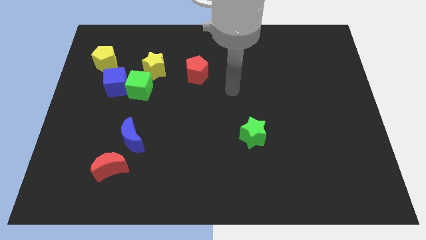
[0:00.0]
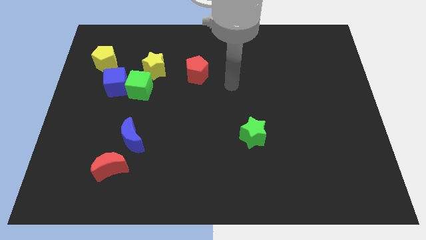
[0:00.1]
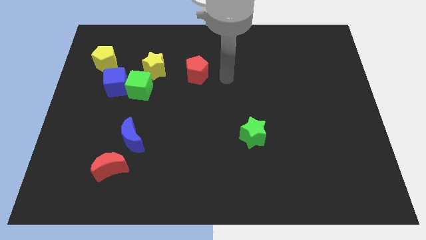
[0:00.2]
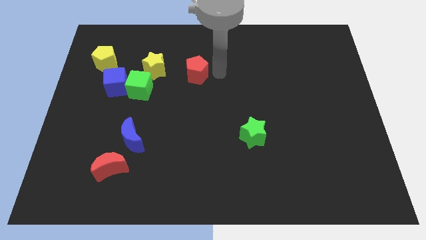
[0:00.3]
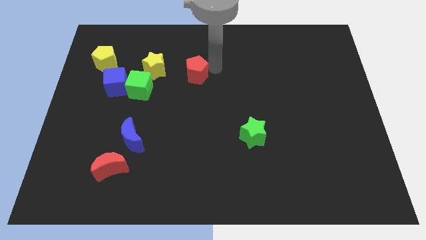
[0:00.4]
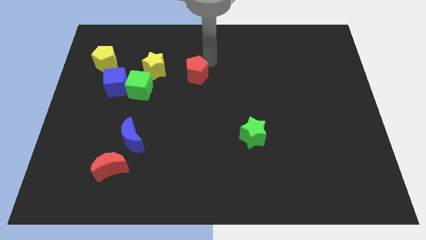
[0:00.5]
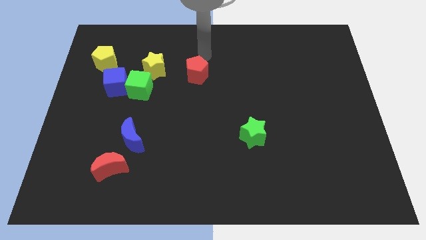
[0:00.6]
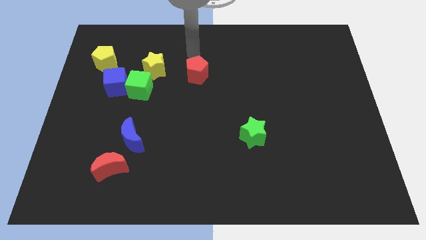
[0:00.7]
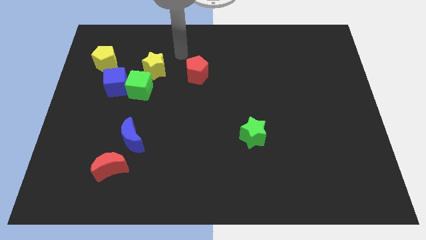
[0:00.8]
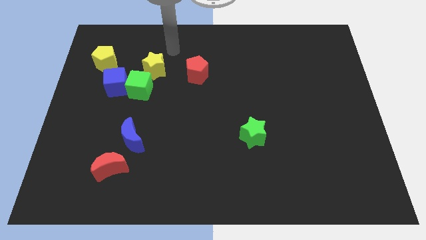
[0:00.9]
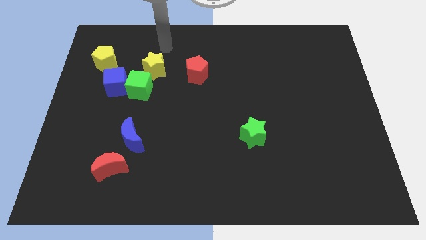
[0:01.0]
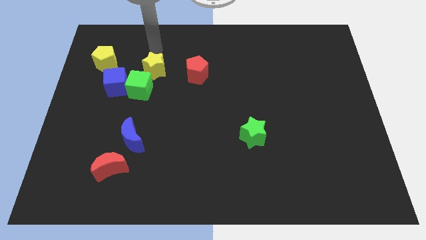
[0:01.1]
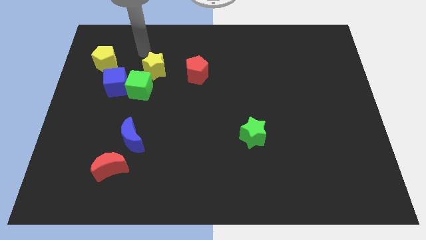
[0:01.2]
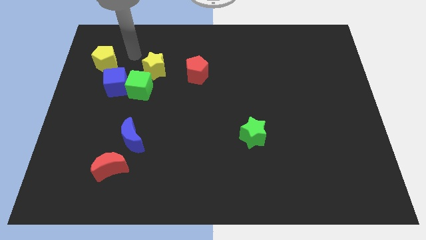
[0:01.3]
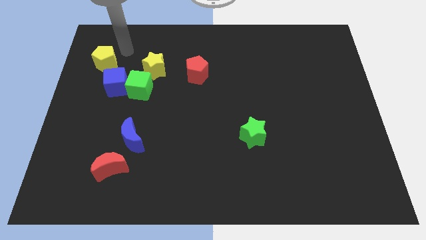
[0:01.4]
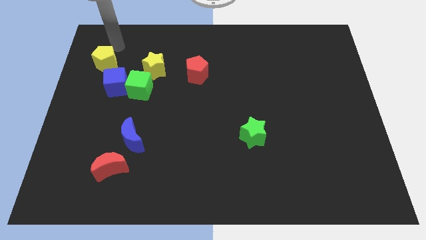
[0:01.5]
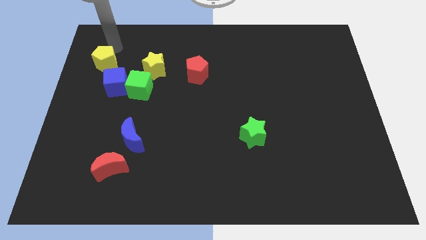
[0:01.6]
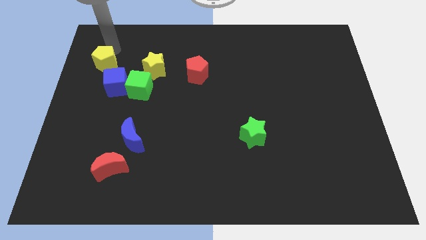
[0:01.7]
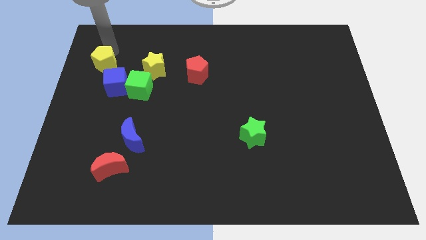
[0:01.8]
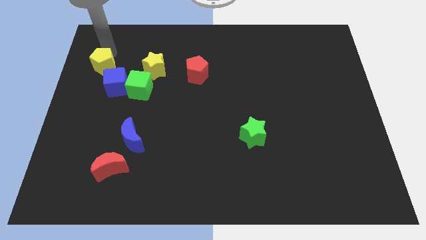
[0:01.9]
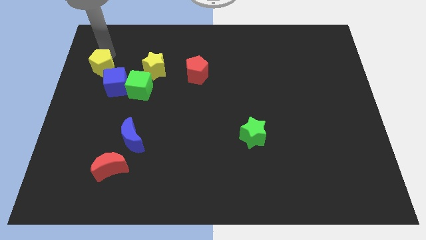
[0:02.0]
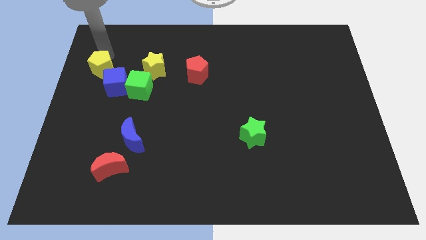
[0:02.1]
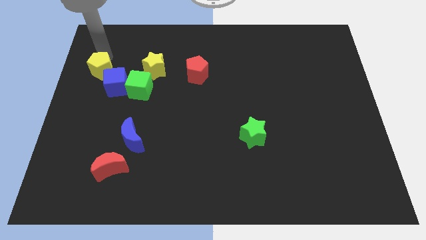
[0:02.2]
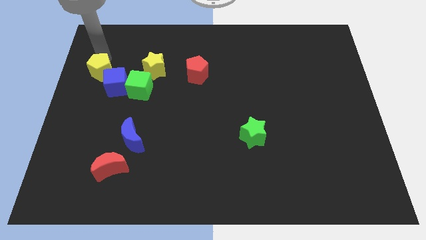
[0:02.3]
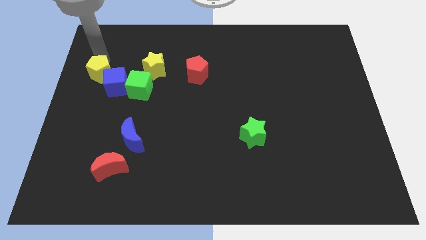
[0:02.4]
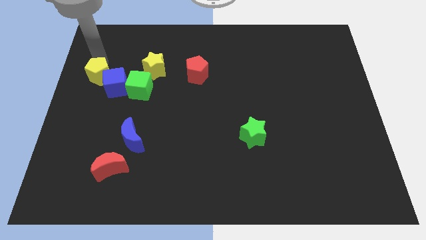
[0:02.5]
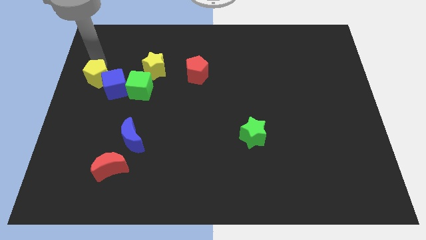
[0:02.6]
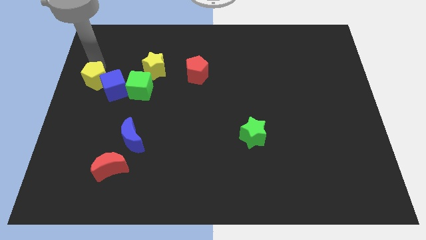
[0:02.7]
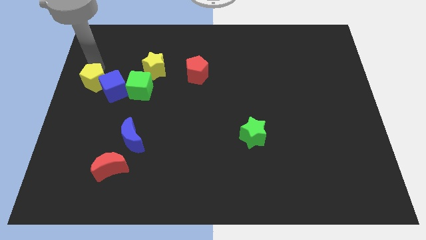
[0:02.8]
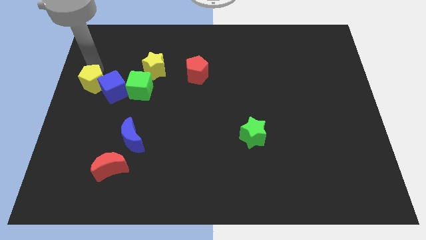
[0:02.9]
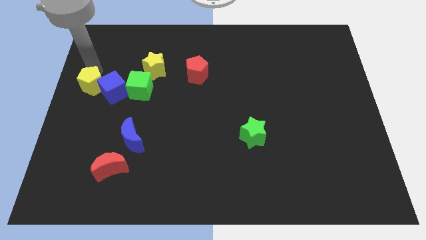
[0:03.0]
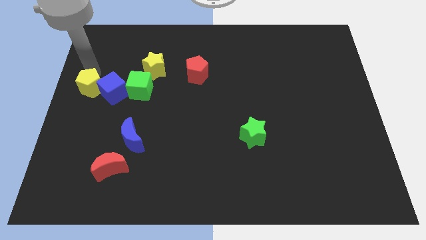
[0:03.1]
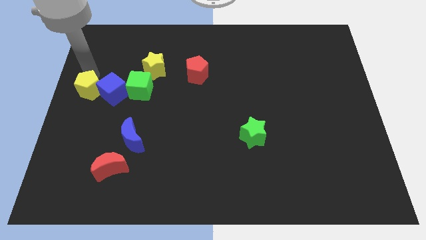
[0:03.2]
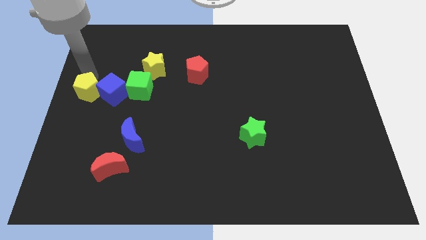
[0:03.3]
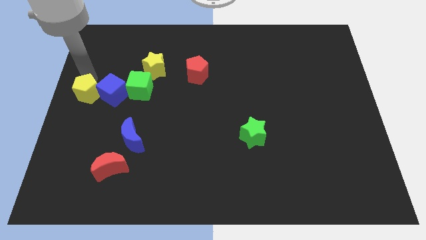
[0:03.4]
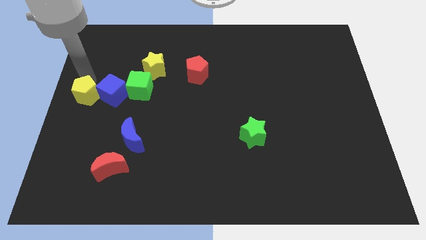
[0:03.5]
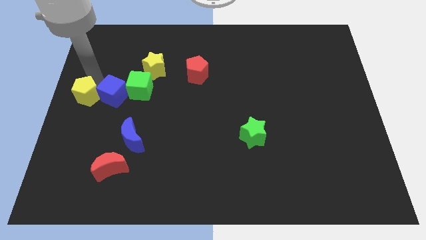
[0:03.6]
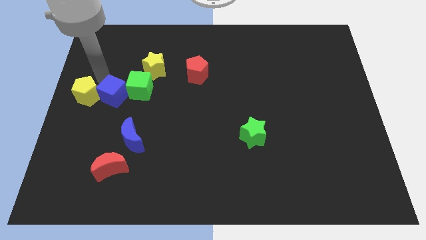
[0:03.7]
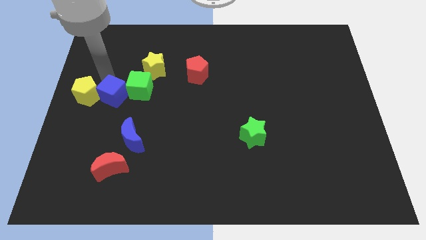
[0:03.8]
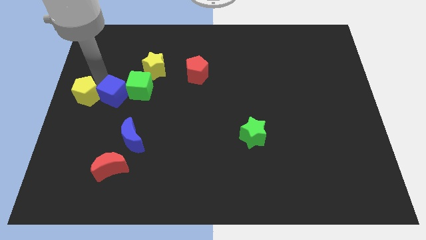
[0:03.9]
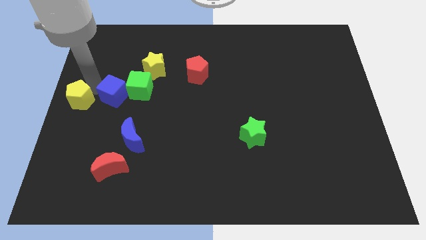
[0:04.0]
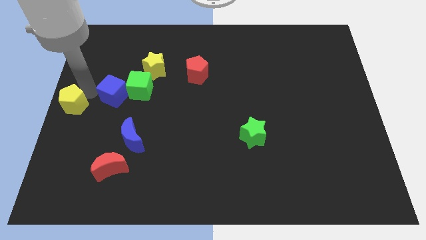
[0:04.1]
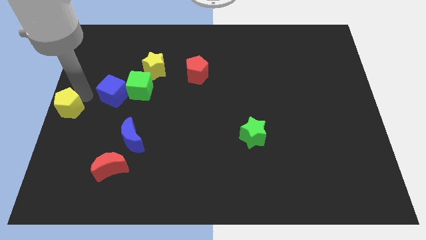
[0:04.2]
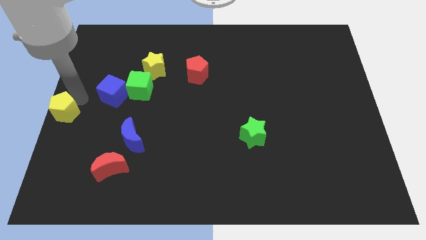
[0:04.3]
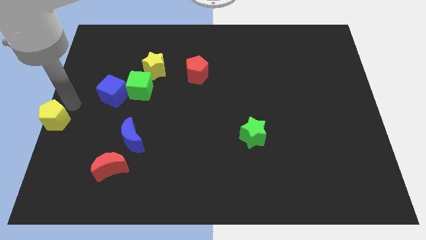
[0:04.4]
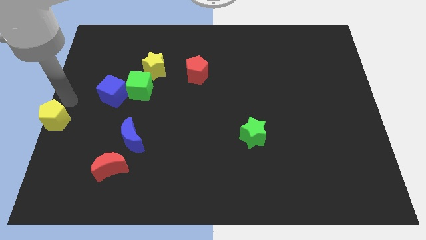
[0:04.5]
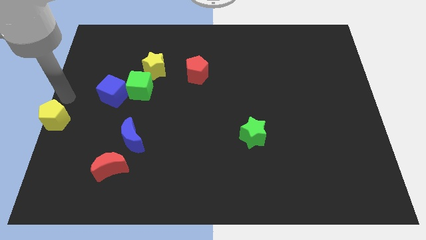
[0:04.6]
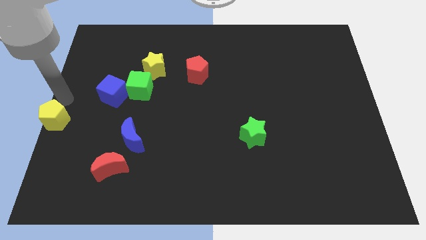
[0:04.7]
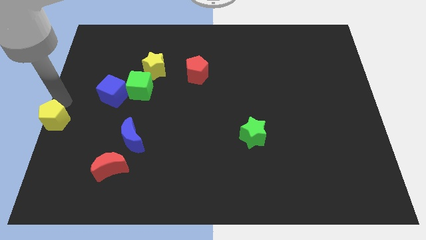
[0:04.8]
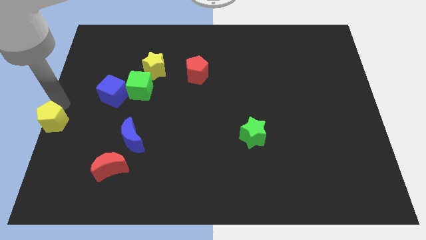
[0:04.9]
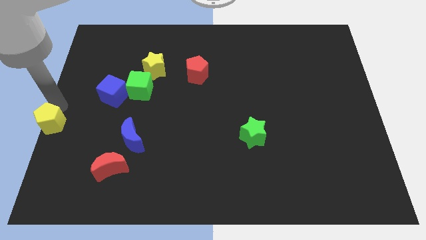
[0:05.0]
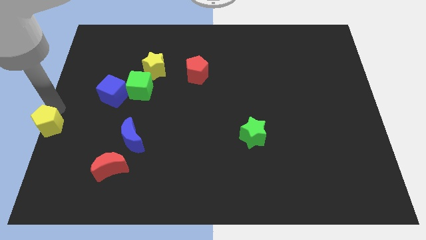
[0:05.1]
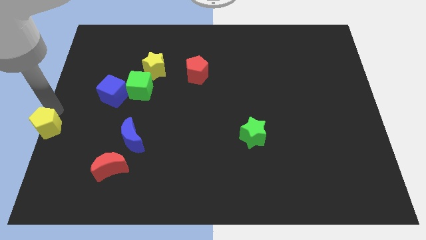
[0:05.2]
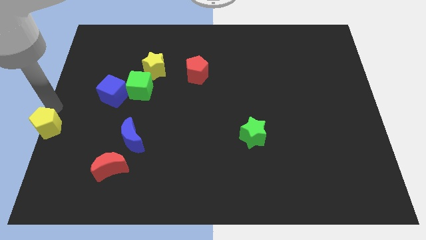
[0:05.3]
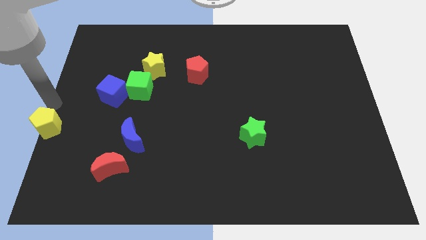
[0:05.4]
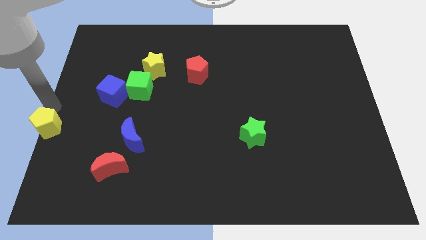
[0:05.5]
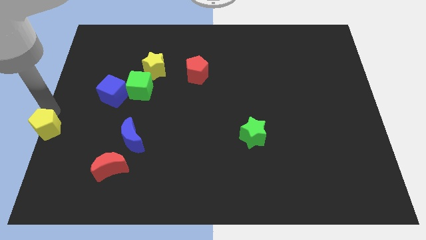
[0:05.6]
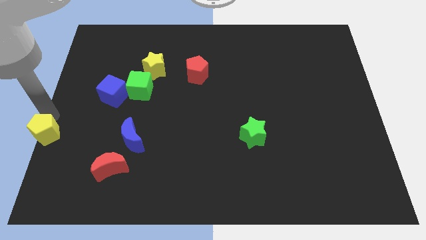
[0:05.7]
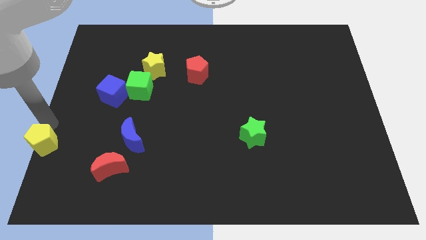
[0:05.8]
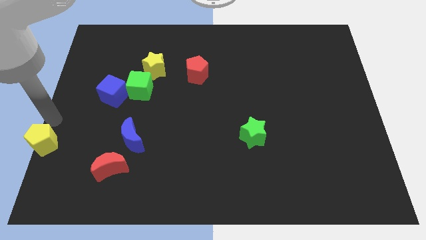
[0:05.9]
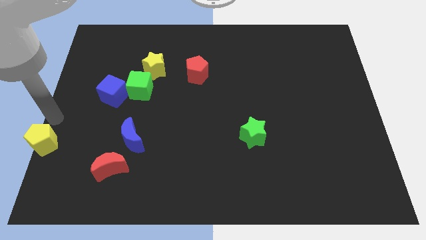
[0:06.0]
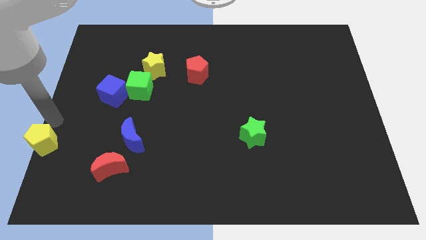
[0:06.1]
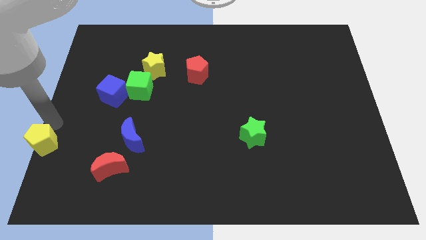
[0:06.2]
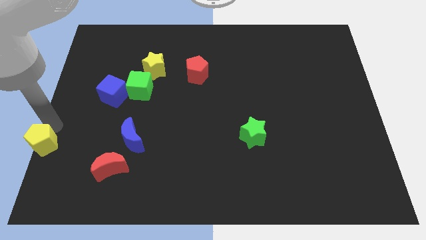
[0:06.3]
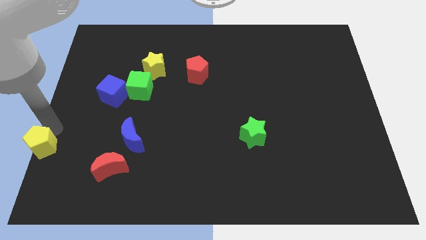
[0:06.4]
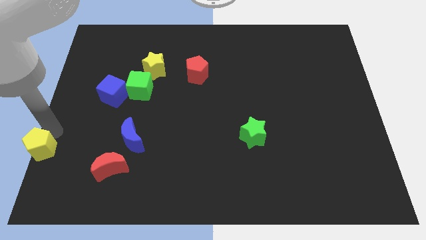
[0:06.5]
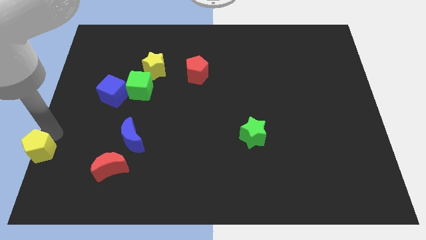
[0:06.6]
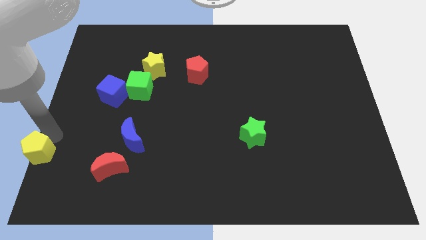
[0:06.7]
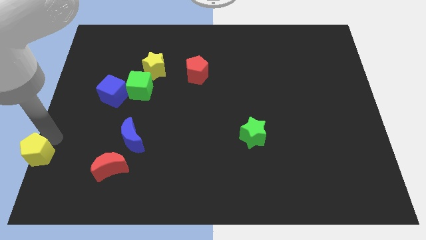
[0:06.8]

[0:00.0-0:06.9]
push the yellow pentagon to the lower left corner

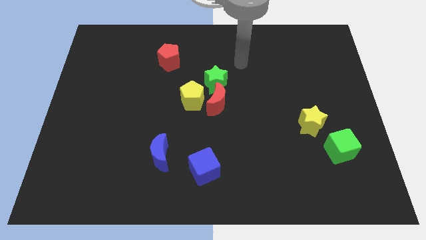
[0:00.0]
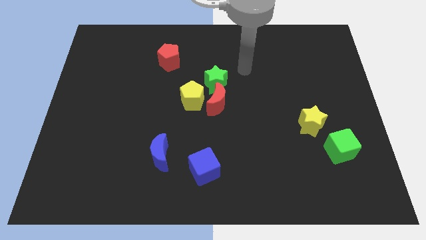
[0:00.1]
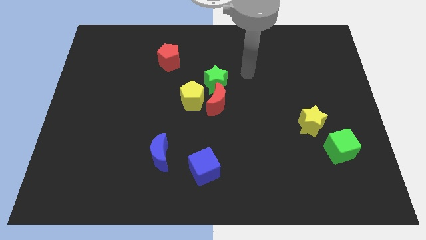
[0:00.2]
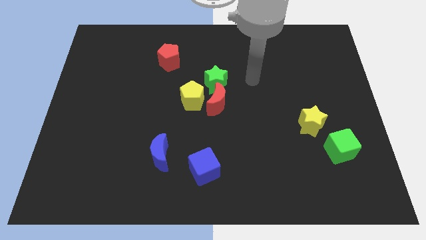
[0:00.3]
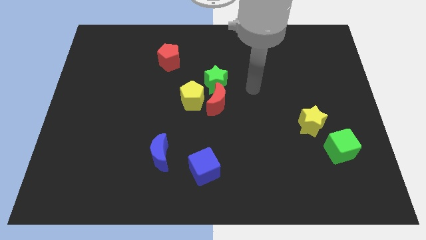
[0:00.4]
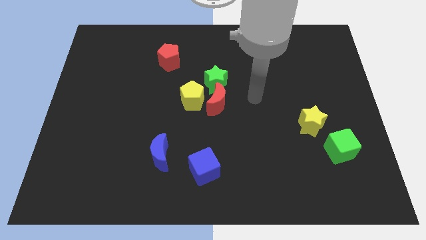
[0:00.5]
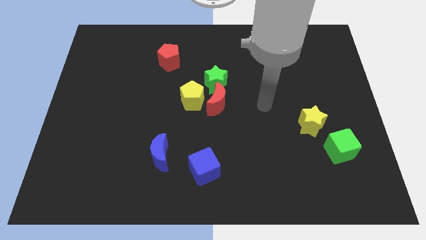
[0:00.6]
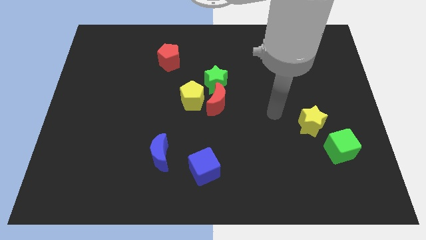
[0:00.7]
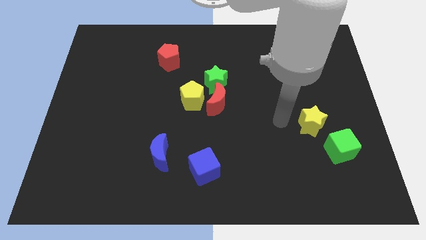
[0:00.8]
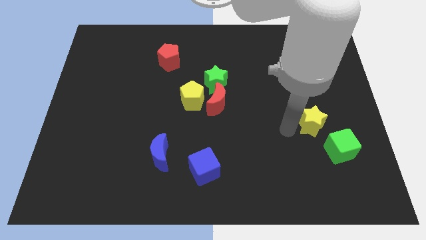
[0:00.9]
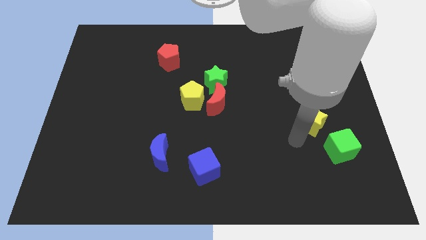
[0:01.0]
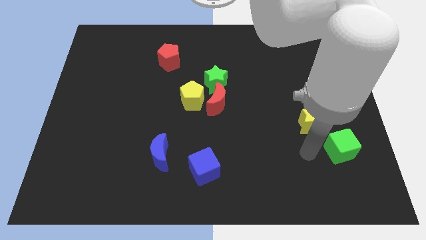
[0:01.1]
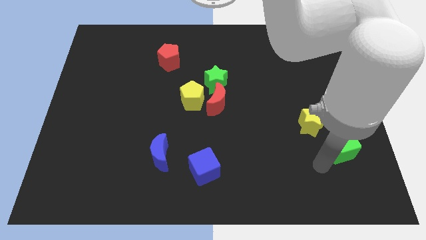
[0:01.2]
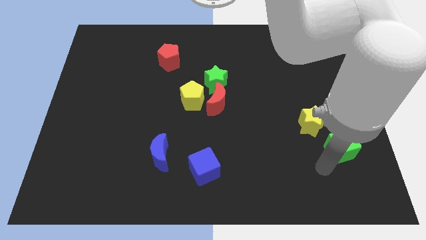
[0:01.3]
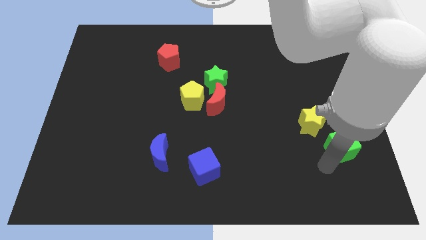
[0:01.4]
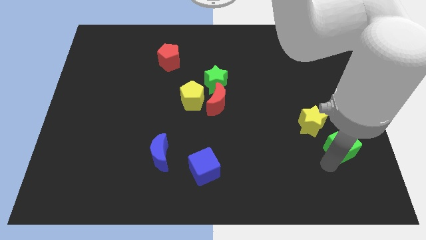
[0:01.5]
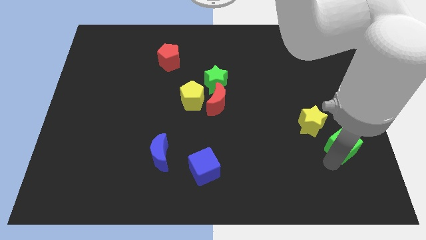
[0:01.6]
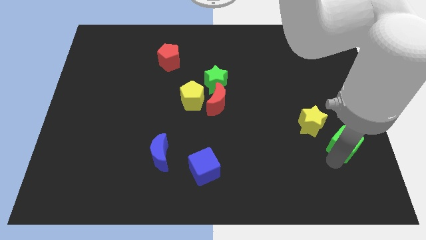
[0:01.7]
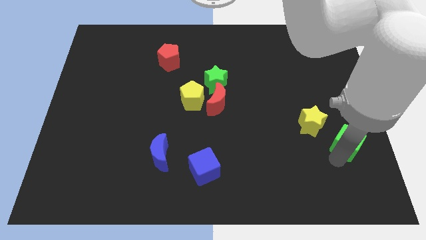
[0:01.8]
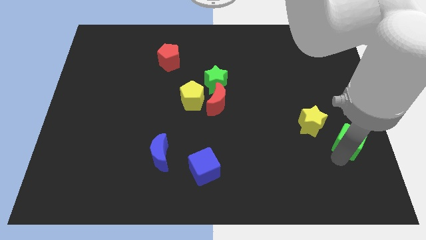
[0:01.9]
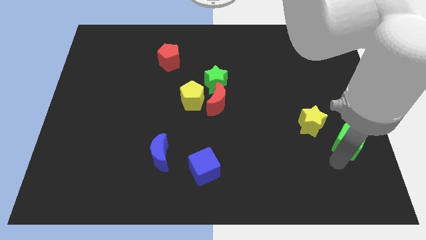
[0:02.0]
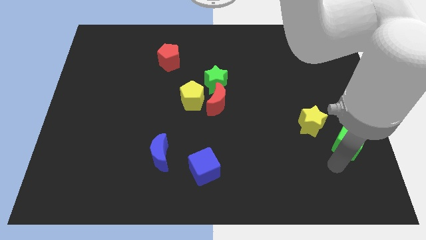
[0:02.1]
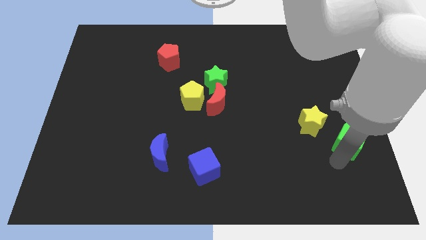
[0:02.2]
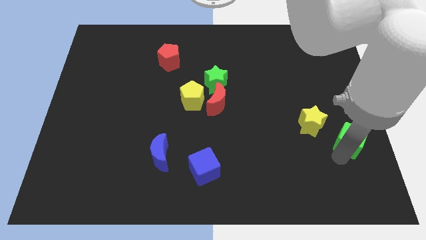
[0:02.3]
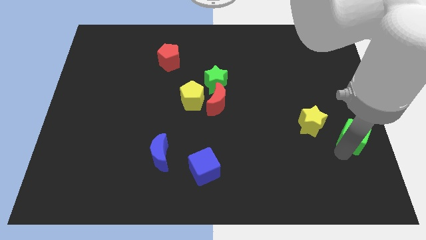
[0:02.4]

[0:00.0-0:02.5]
put the green cube to the right side of the board
